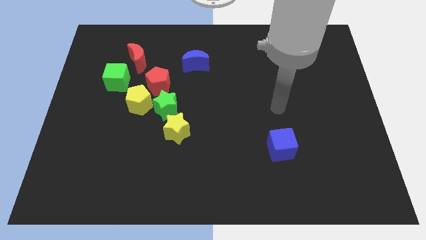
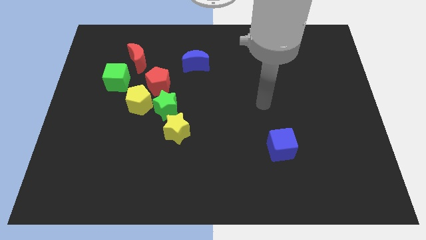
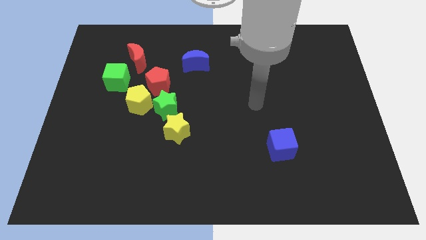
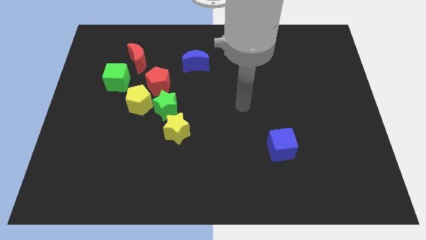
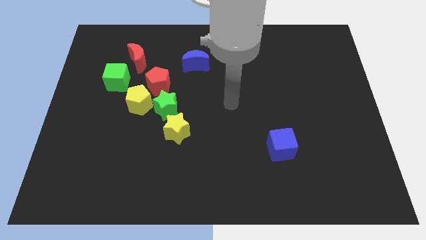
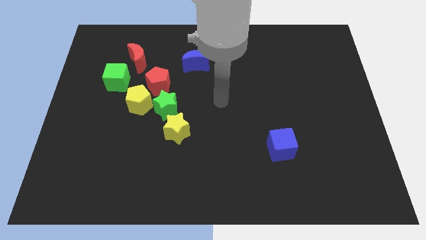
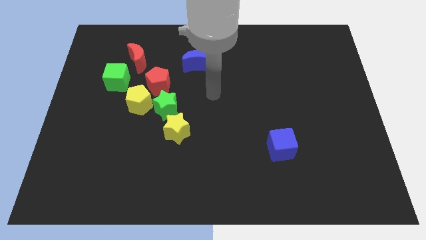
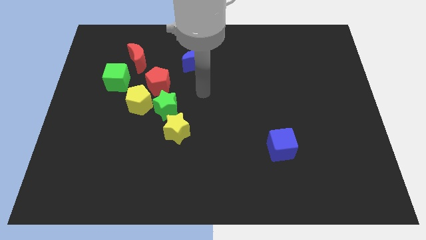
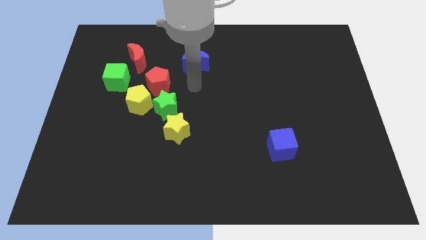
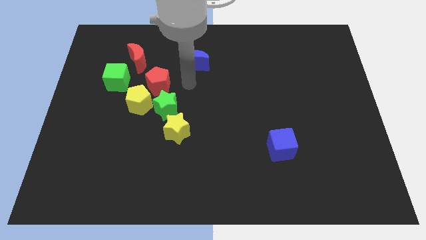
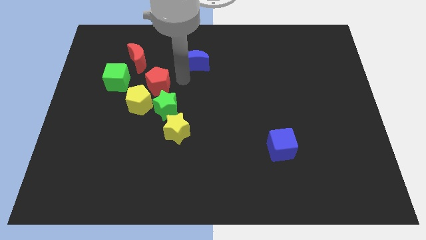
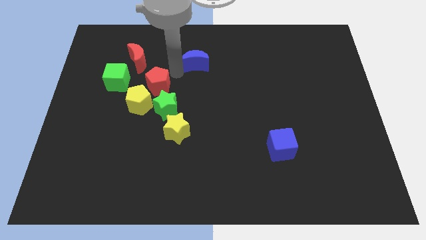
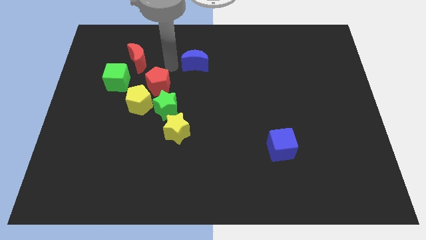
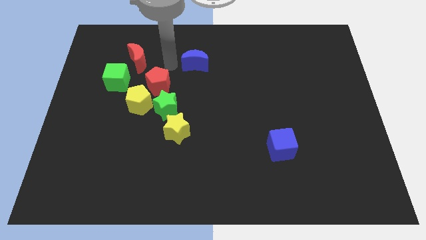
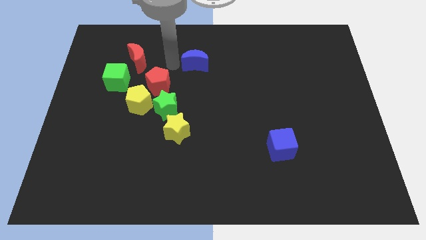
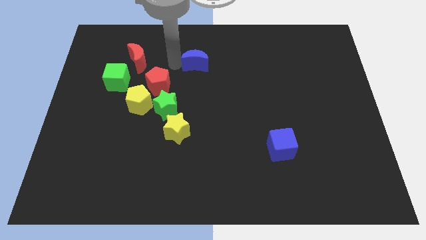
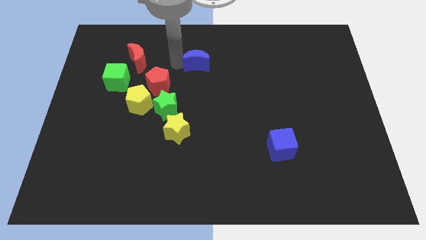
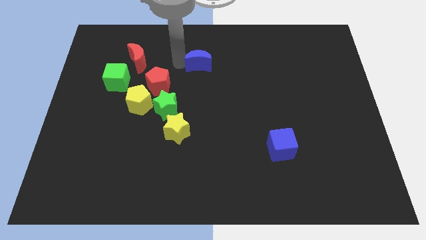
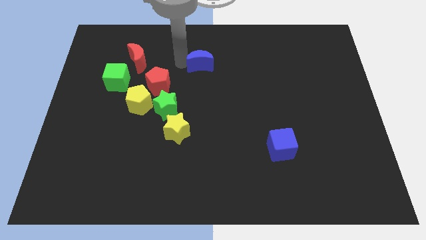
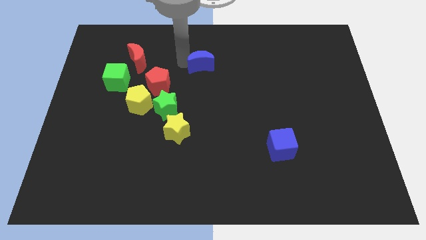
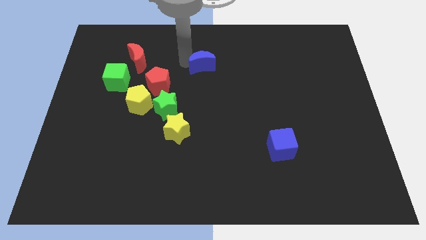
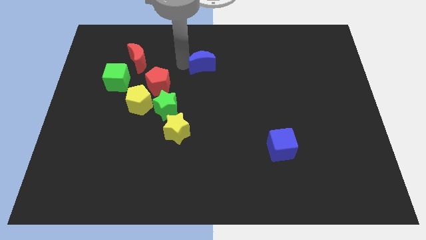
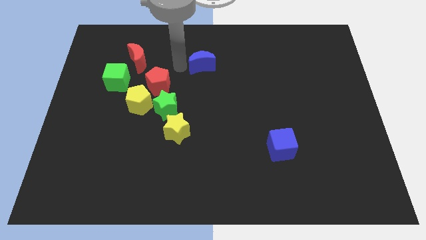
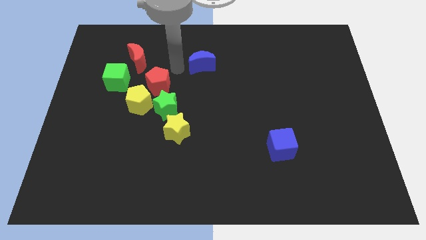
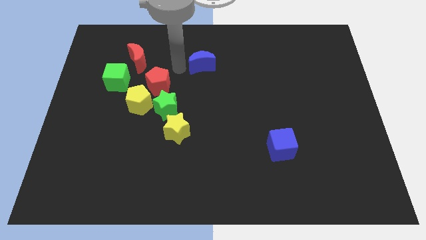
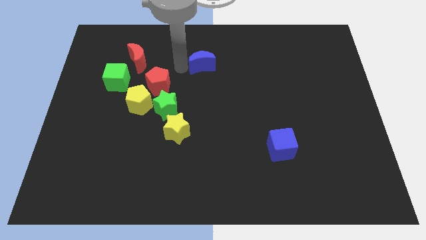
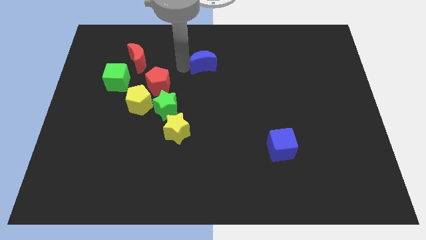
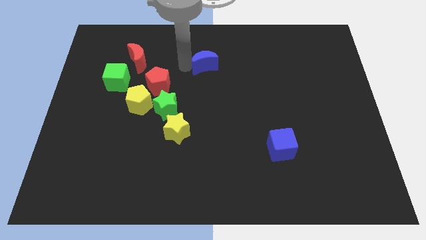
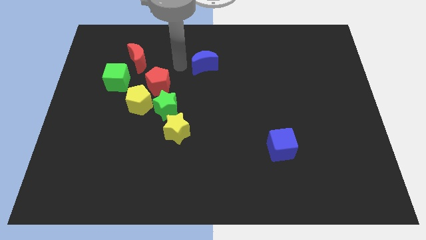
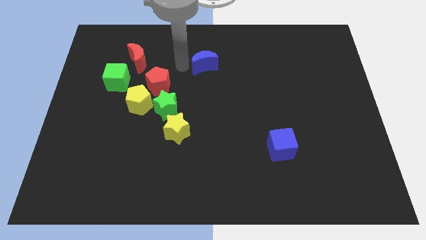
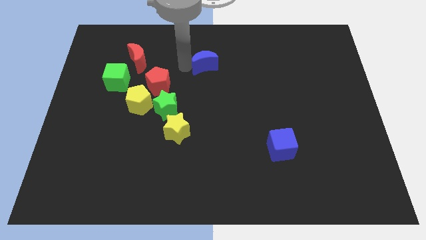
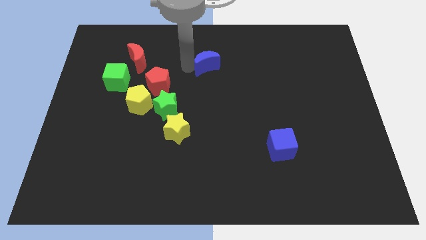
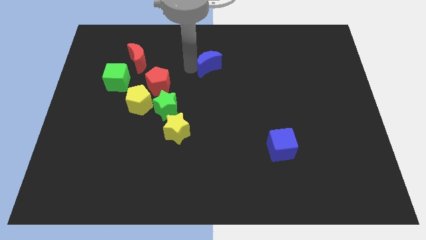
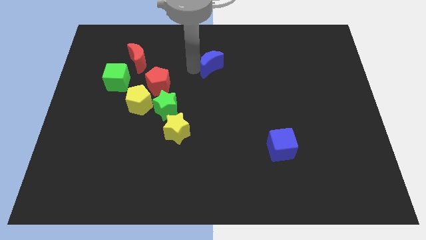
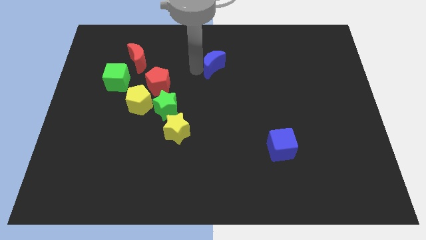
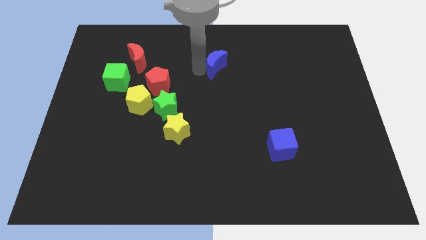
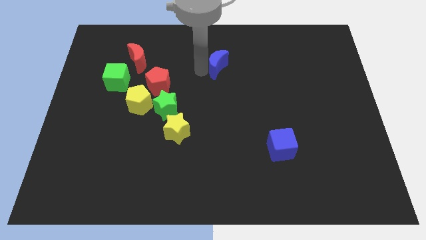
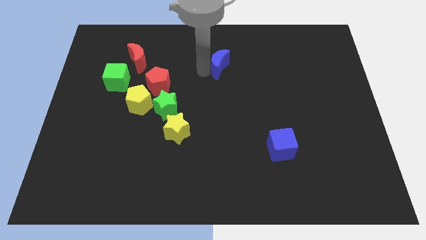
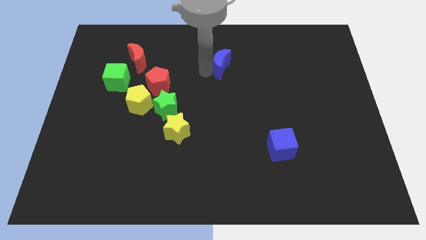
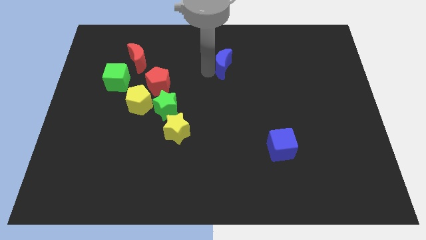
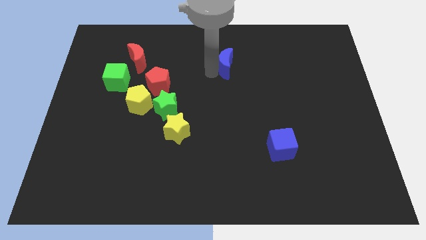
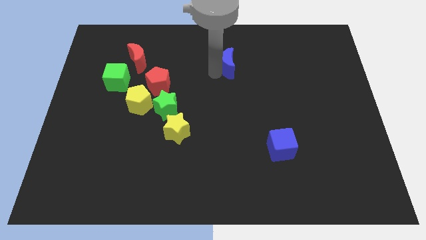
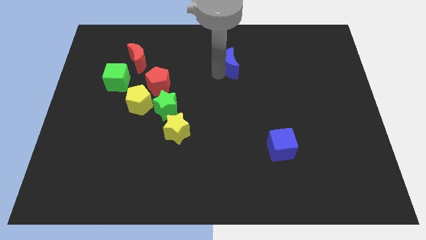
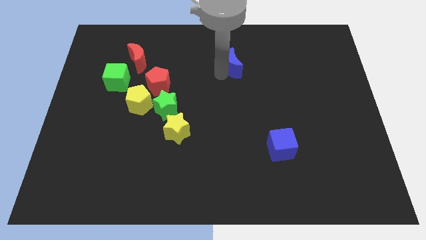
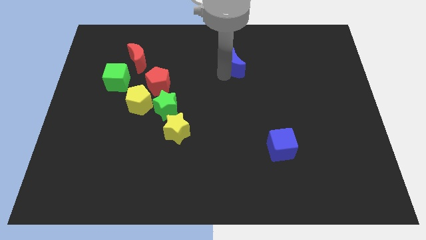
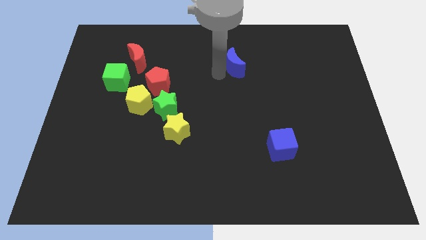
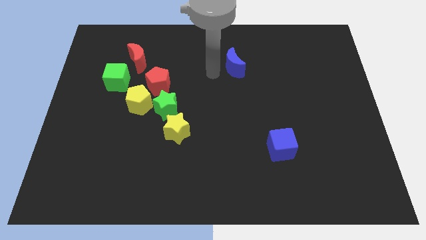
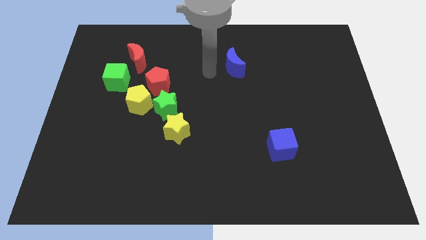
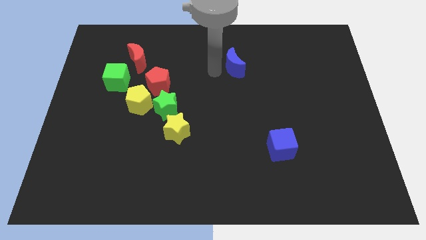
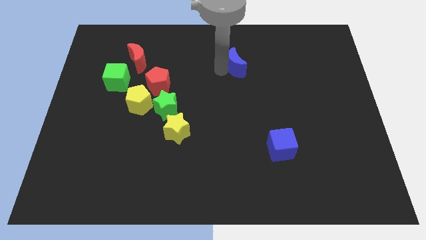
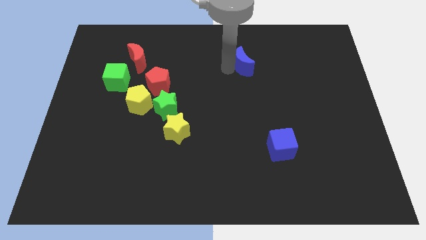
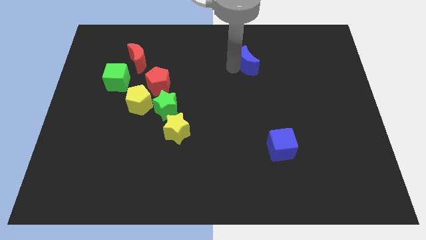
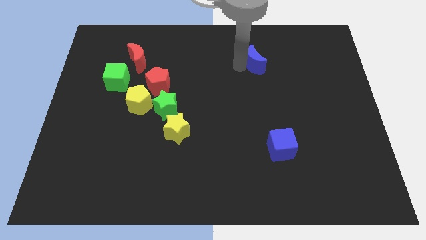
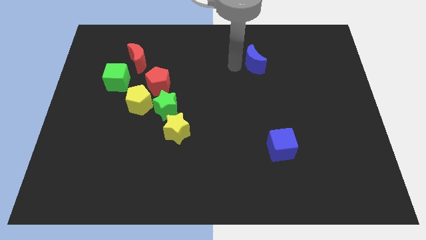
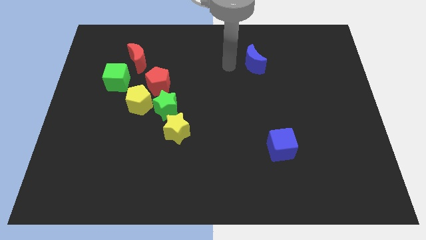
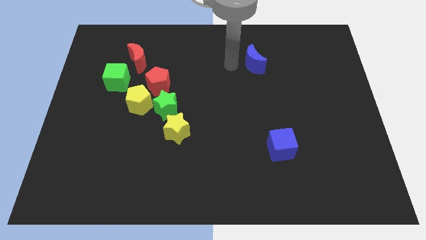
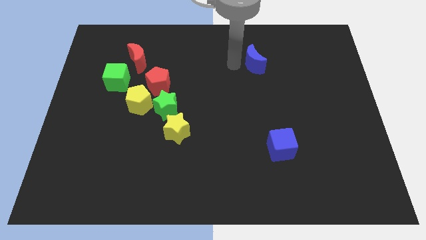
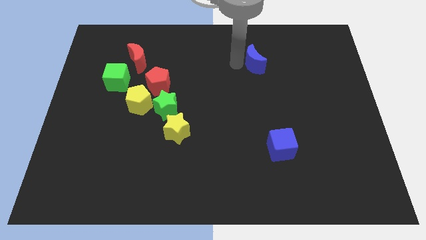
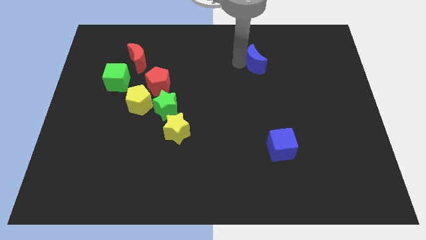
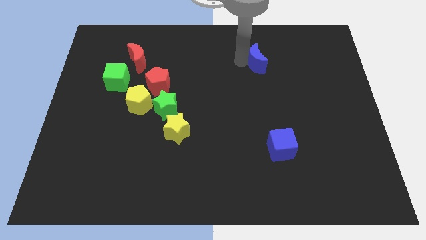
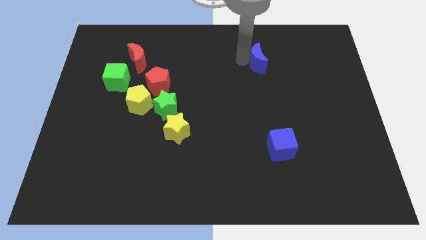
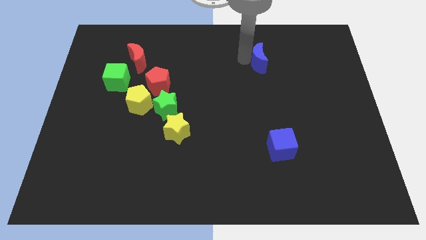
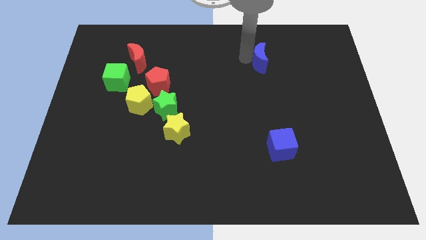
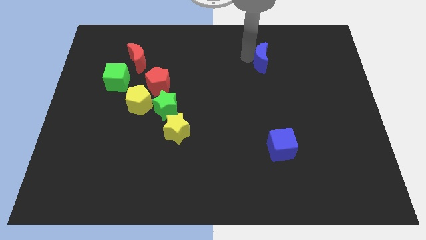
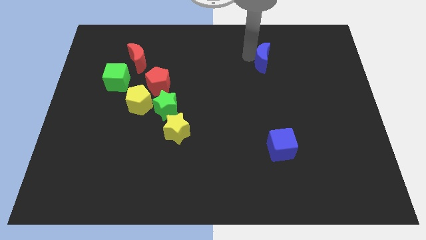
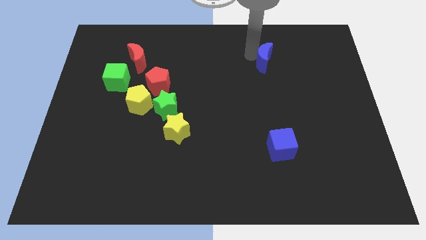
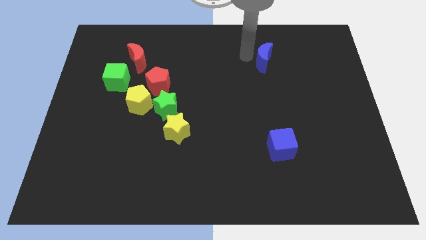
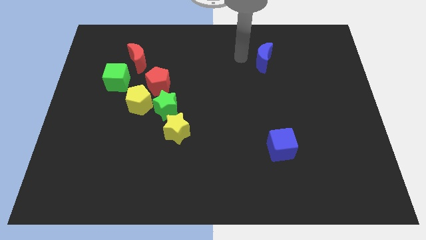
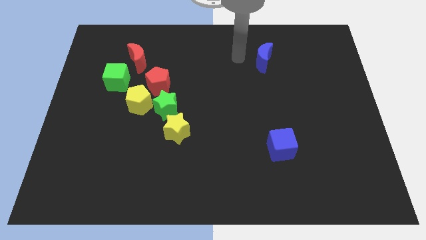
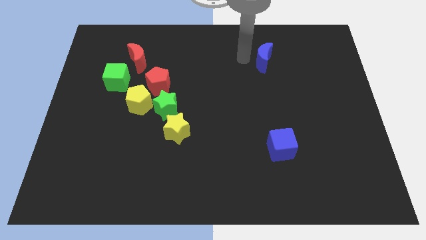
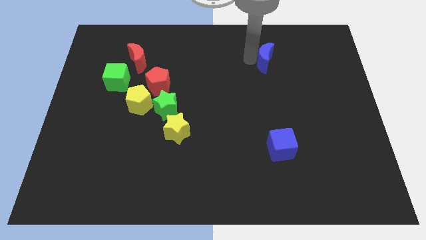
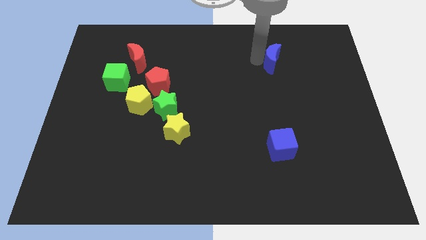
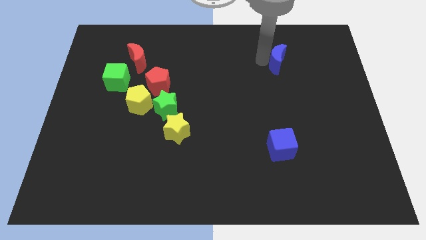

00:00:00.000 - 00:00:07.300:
slide the blue moon to the right

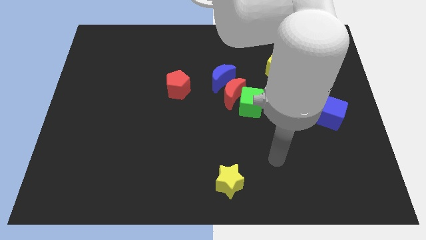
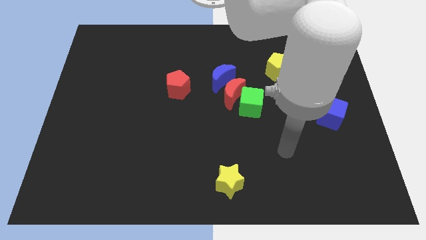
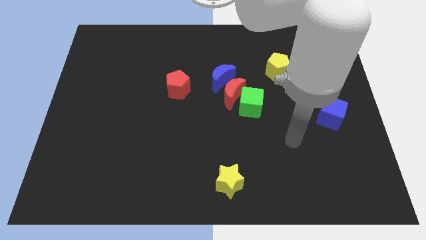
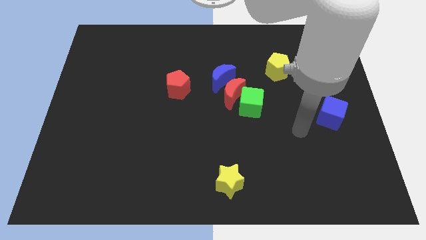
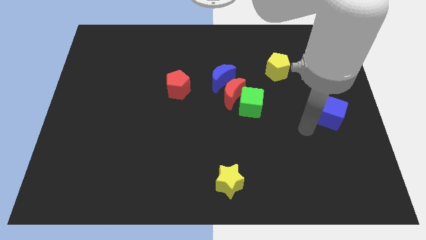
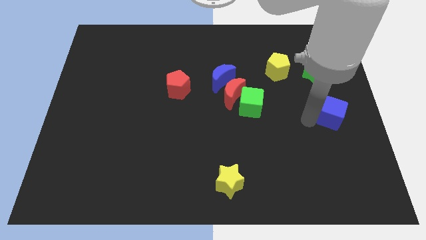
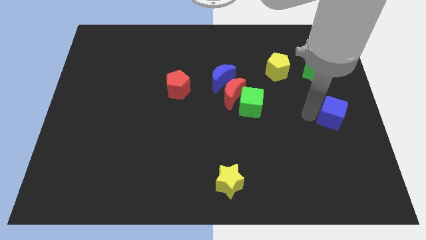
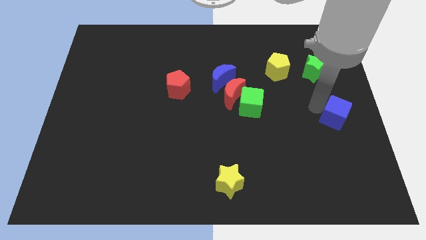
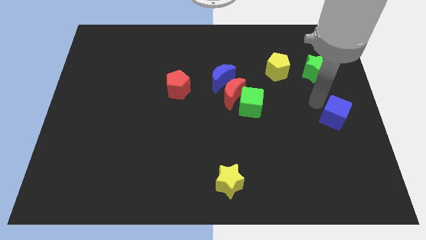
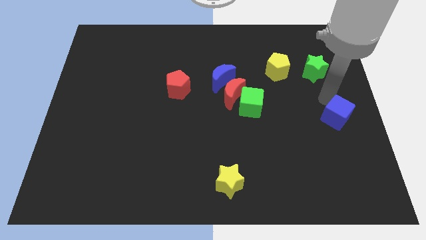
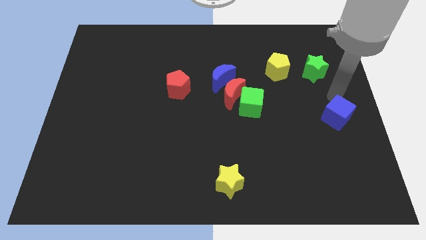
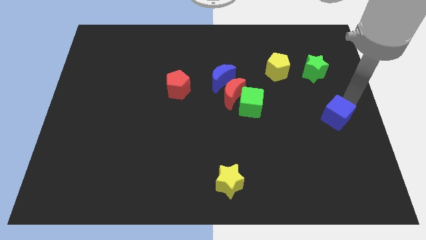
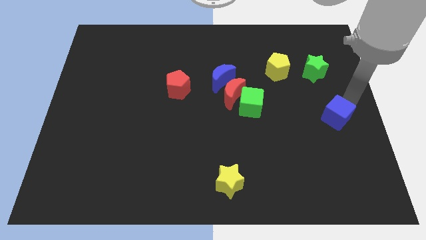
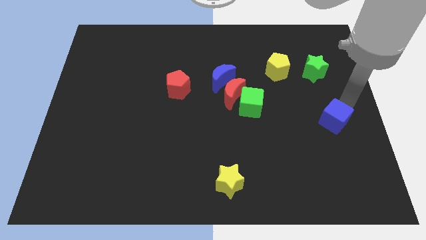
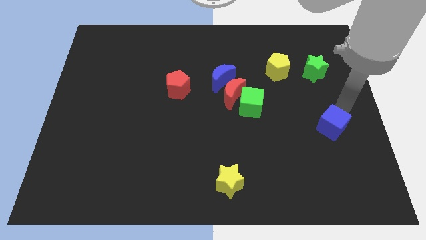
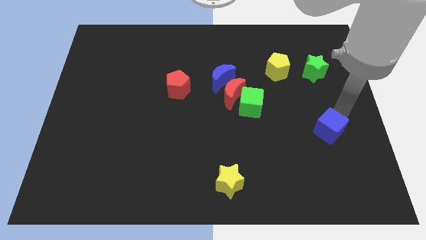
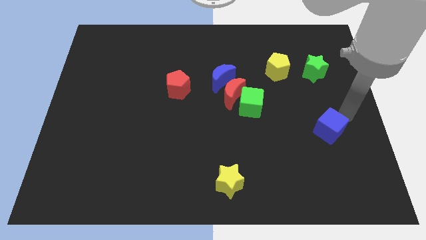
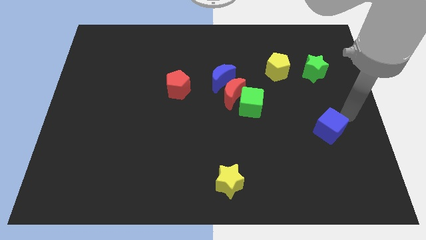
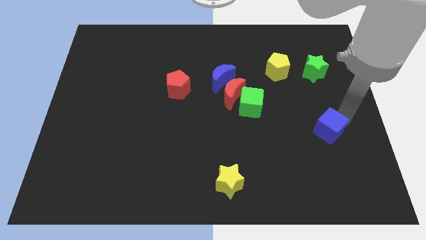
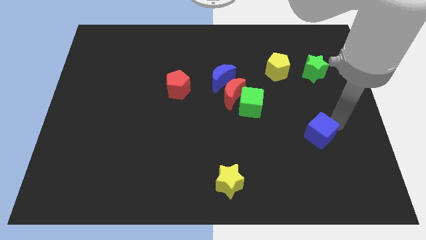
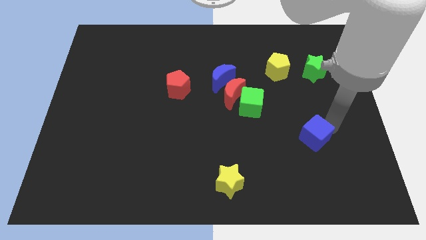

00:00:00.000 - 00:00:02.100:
move the blue cube a bit diagonally downwards and left
